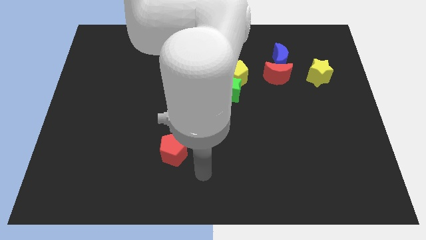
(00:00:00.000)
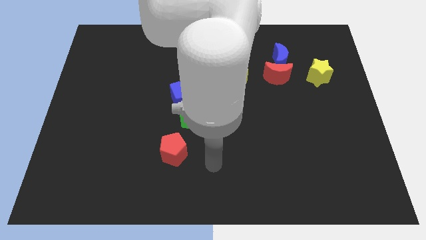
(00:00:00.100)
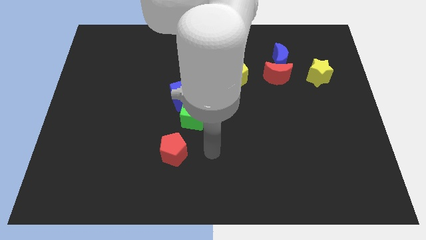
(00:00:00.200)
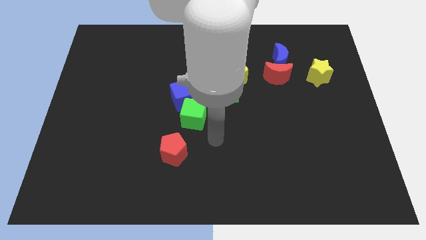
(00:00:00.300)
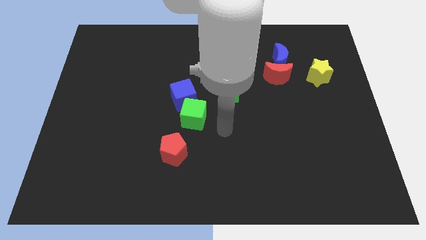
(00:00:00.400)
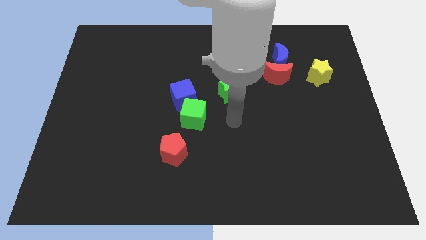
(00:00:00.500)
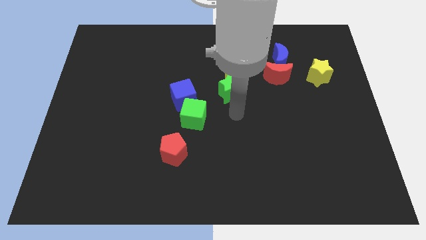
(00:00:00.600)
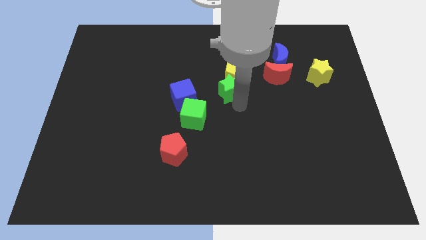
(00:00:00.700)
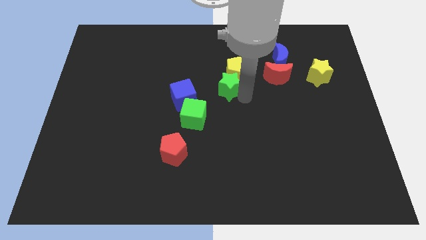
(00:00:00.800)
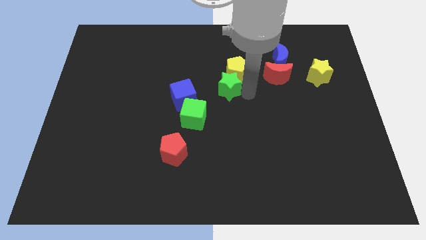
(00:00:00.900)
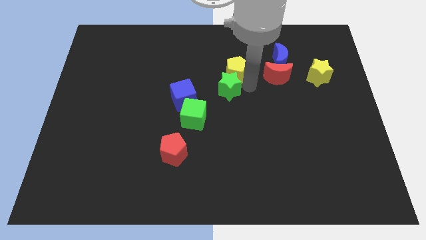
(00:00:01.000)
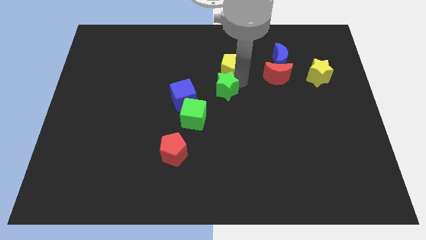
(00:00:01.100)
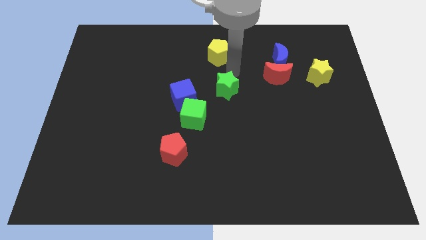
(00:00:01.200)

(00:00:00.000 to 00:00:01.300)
move the green star away from the yellow pentagon

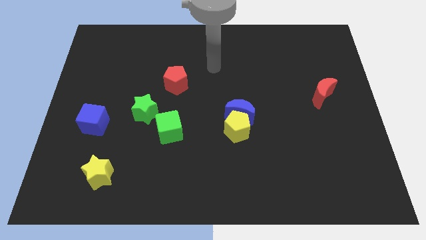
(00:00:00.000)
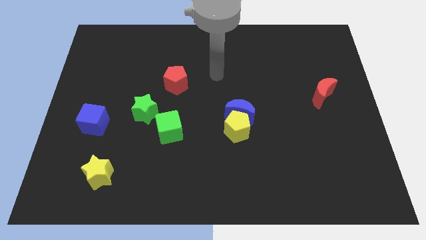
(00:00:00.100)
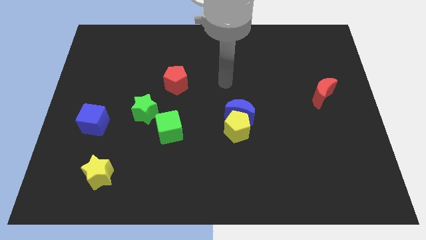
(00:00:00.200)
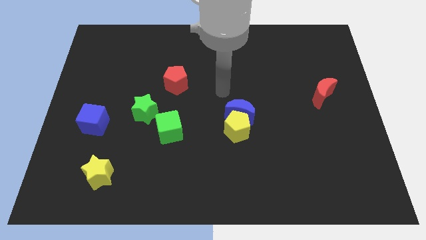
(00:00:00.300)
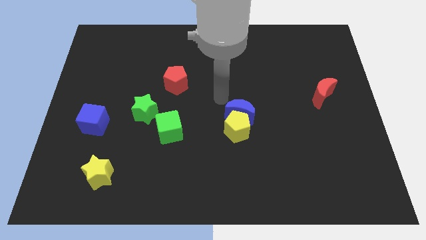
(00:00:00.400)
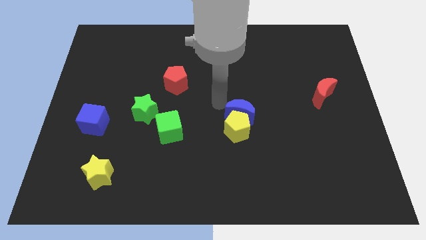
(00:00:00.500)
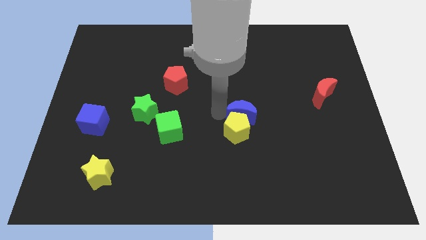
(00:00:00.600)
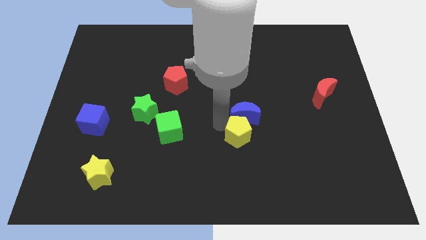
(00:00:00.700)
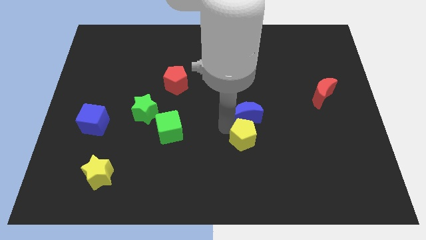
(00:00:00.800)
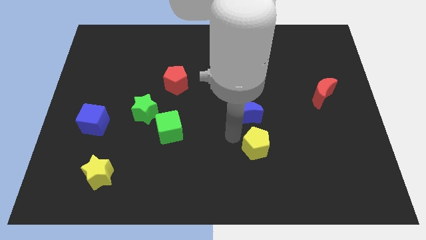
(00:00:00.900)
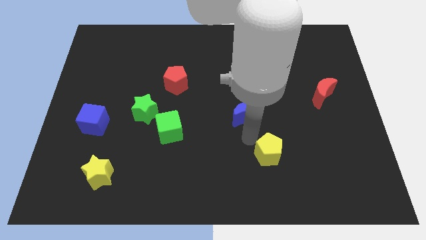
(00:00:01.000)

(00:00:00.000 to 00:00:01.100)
separate the blue moon from the yellow pentagon

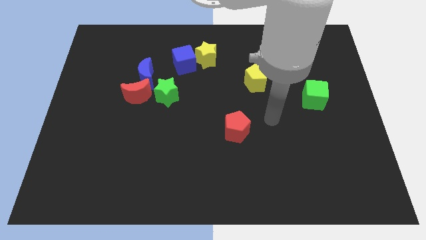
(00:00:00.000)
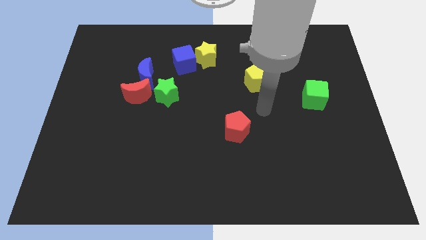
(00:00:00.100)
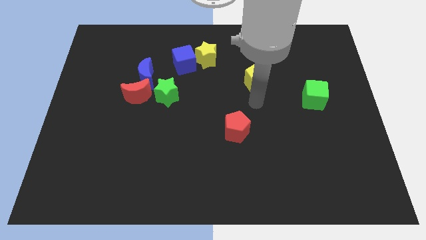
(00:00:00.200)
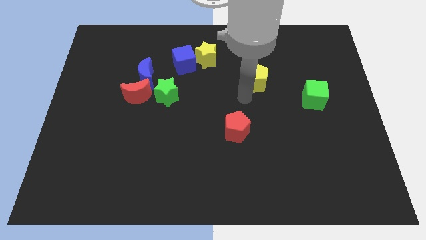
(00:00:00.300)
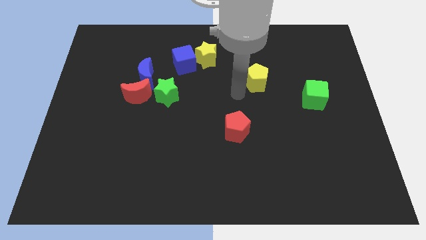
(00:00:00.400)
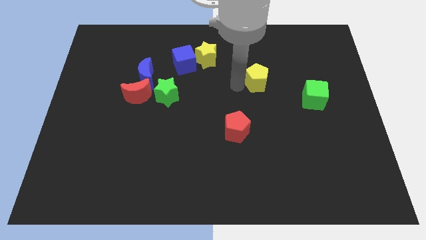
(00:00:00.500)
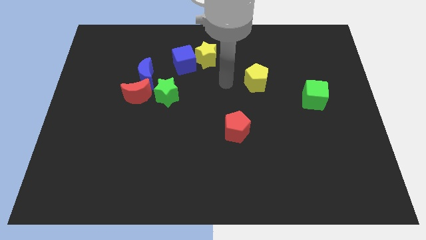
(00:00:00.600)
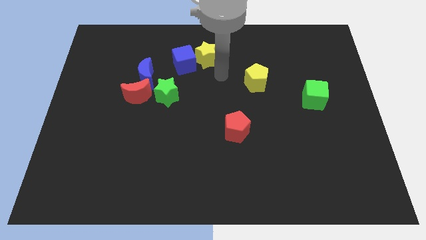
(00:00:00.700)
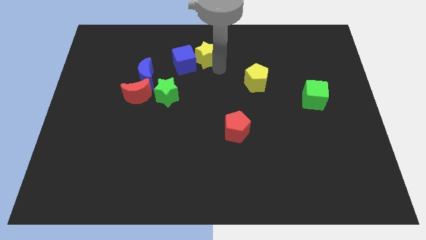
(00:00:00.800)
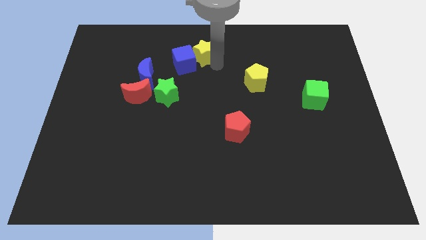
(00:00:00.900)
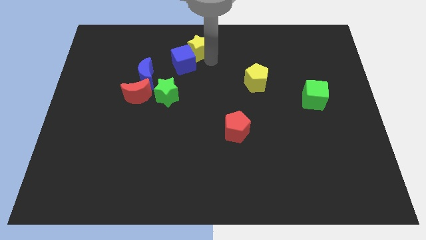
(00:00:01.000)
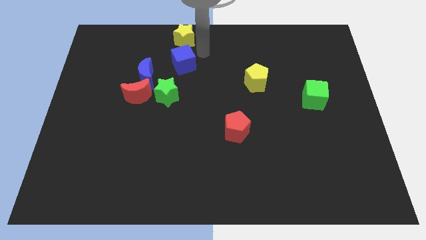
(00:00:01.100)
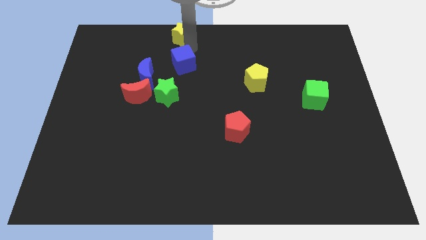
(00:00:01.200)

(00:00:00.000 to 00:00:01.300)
separate the blue cube from the yellow star

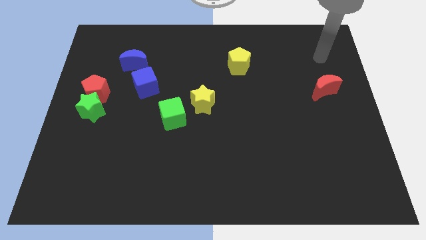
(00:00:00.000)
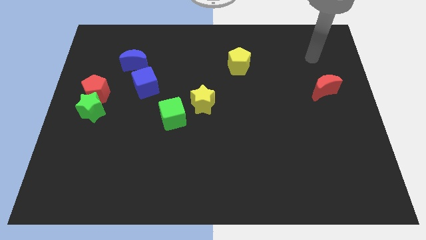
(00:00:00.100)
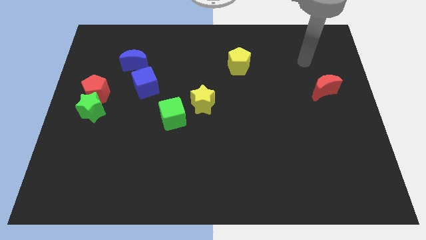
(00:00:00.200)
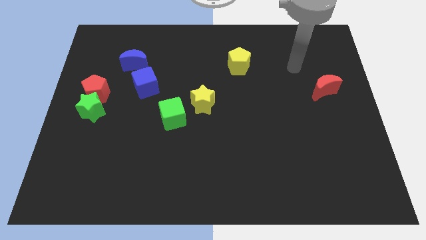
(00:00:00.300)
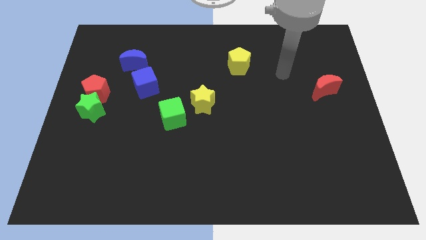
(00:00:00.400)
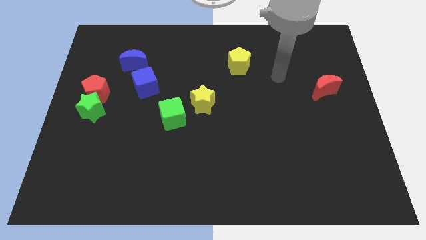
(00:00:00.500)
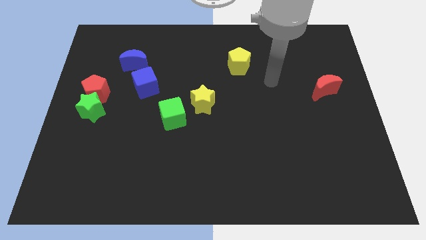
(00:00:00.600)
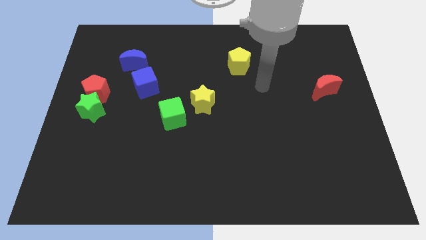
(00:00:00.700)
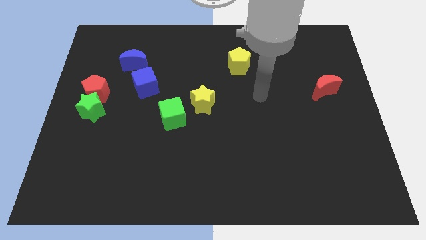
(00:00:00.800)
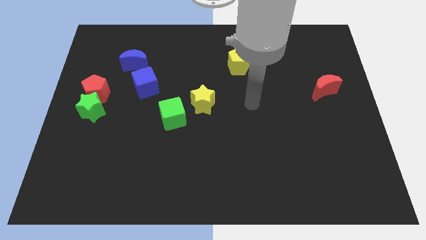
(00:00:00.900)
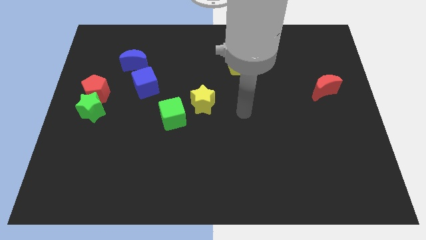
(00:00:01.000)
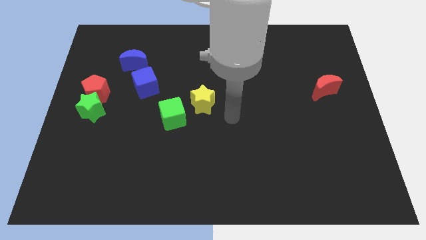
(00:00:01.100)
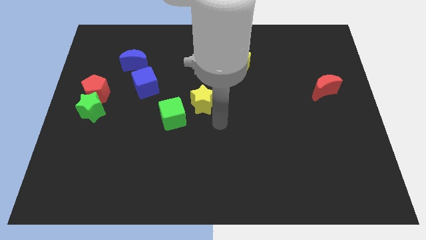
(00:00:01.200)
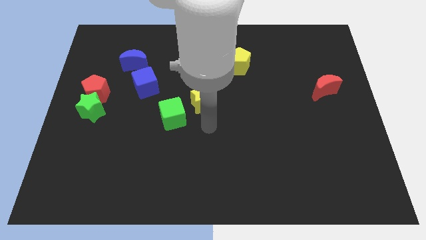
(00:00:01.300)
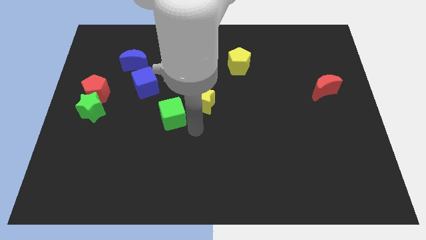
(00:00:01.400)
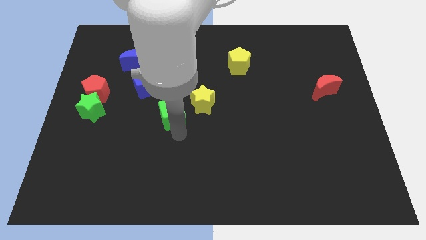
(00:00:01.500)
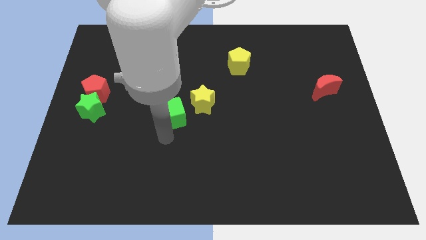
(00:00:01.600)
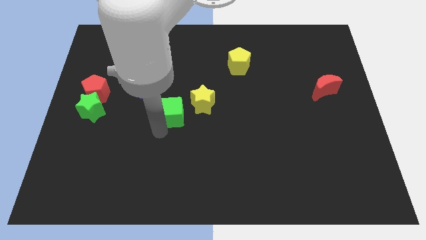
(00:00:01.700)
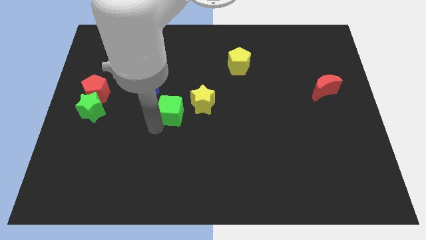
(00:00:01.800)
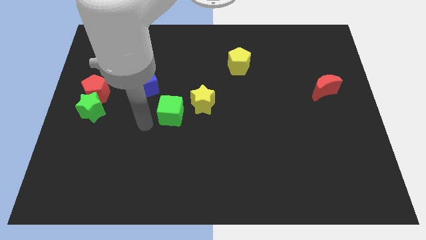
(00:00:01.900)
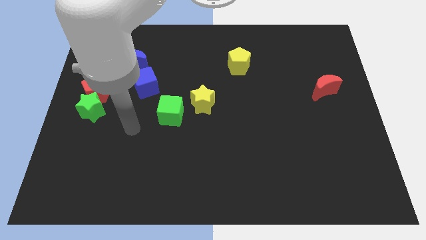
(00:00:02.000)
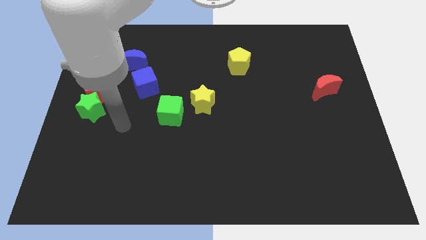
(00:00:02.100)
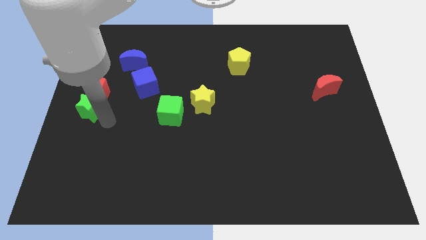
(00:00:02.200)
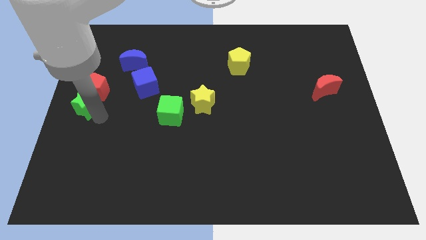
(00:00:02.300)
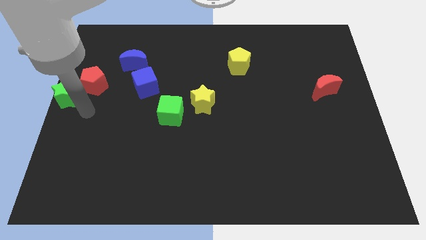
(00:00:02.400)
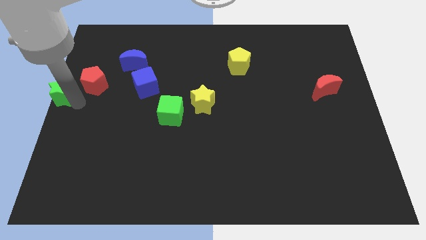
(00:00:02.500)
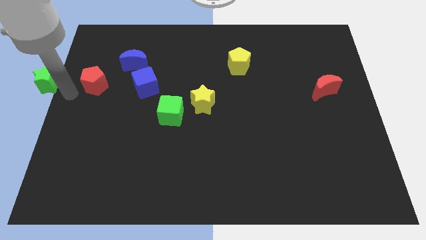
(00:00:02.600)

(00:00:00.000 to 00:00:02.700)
separate the red pentagon from the green star

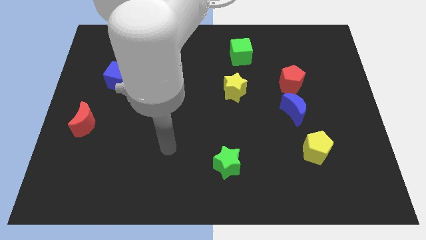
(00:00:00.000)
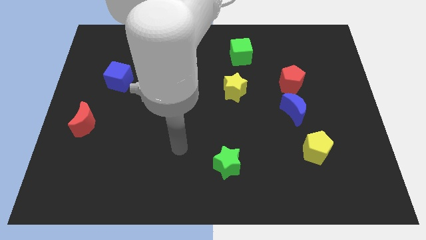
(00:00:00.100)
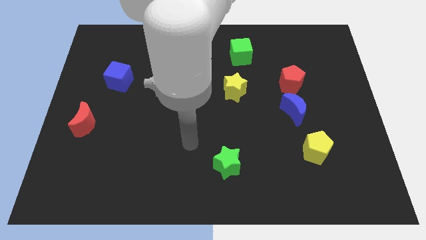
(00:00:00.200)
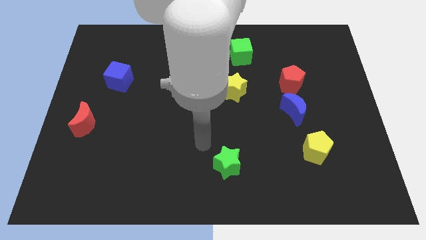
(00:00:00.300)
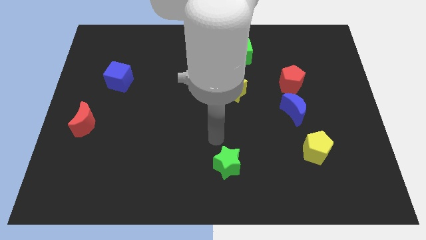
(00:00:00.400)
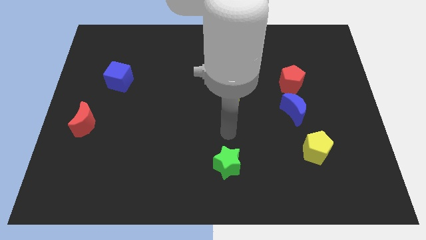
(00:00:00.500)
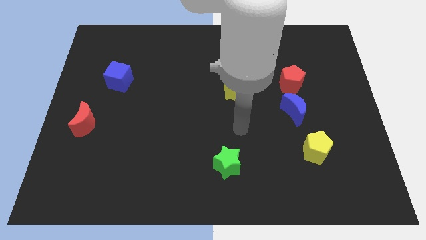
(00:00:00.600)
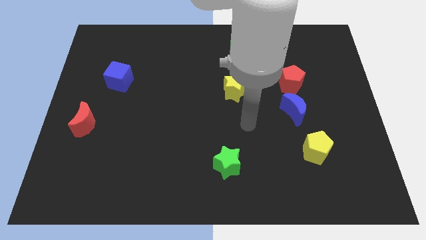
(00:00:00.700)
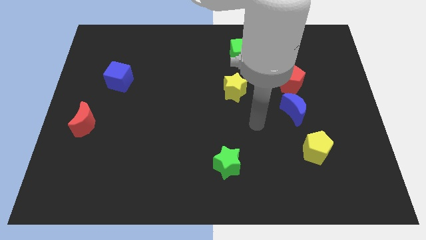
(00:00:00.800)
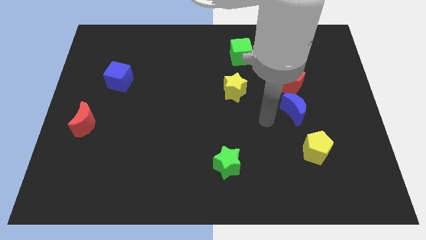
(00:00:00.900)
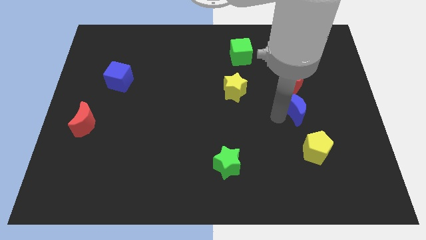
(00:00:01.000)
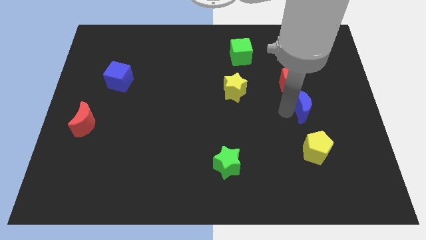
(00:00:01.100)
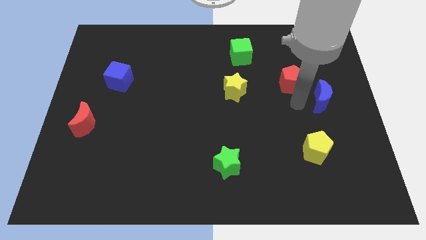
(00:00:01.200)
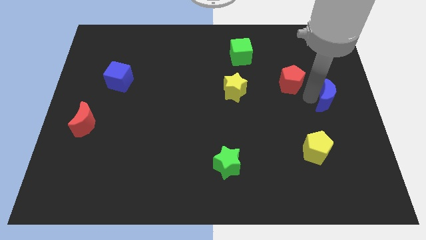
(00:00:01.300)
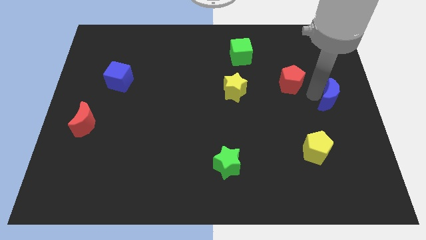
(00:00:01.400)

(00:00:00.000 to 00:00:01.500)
move the red pentagon away from the blue moon

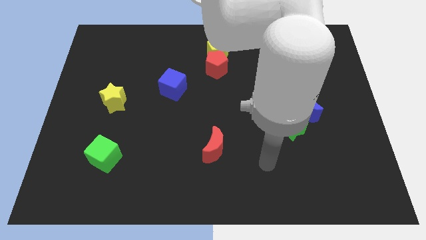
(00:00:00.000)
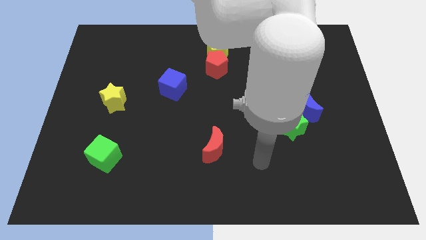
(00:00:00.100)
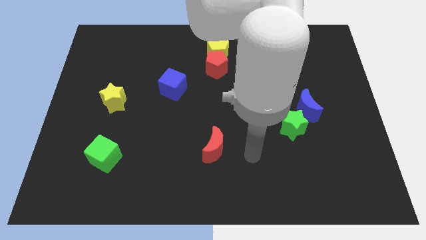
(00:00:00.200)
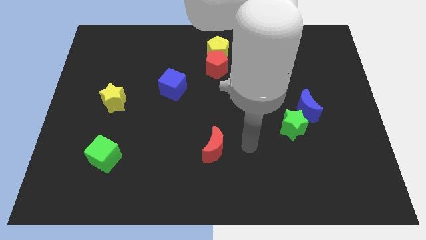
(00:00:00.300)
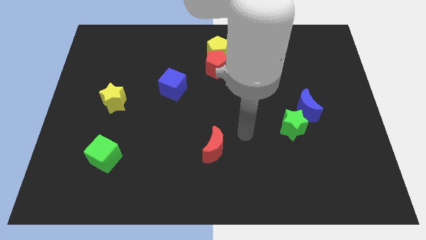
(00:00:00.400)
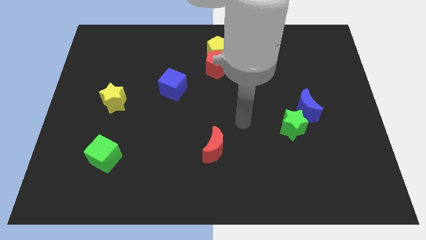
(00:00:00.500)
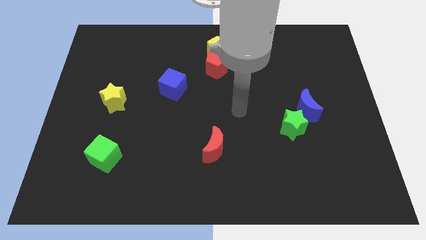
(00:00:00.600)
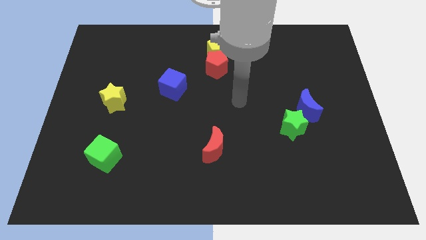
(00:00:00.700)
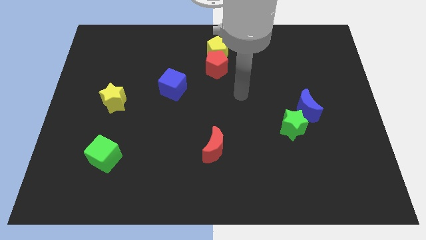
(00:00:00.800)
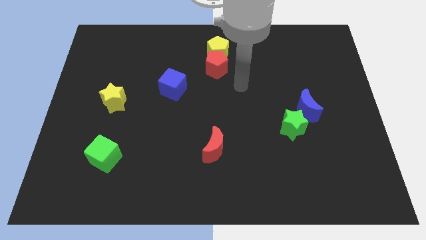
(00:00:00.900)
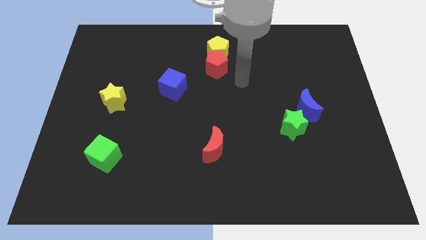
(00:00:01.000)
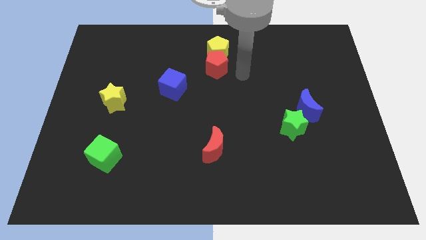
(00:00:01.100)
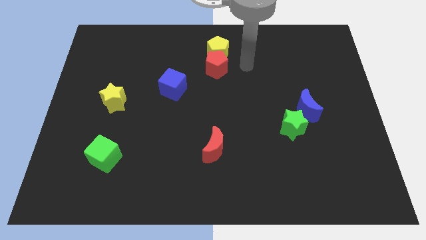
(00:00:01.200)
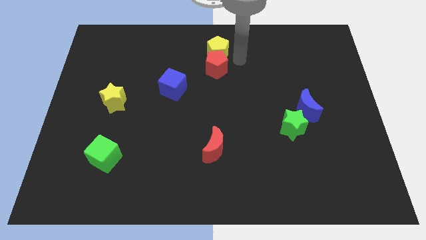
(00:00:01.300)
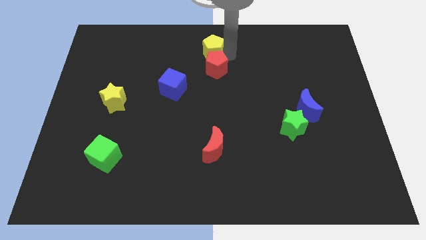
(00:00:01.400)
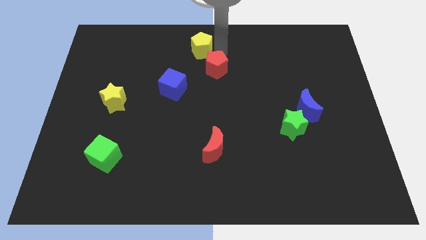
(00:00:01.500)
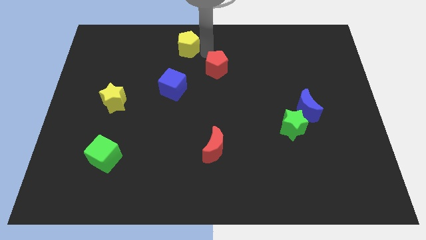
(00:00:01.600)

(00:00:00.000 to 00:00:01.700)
move the red pentagon away from the yellow pentagon
